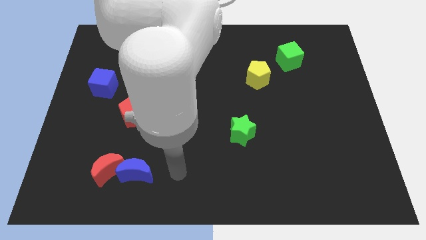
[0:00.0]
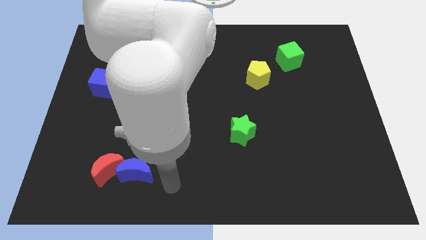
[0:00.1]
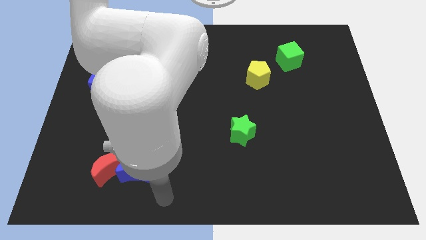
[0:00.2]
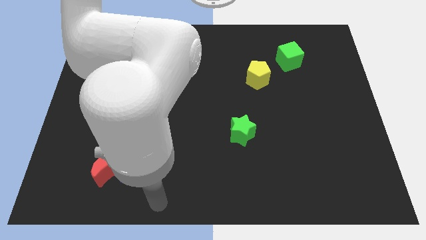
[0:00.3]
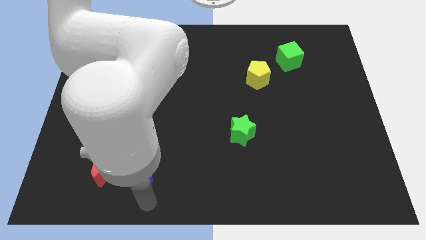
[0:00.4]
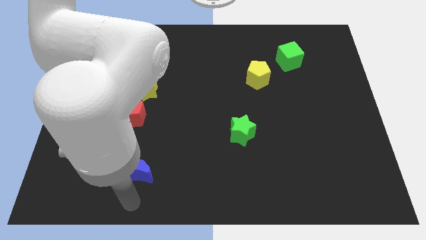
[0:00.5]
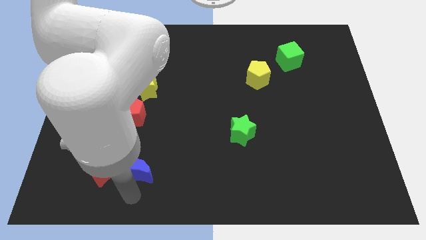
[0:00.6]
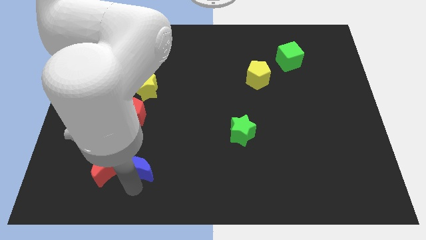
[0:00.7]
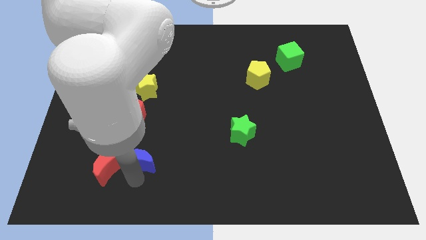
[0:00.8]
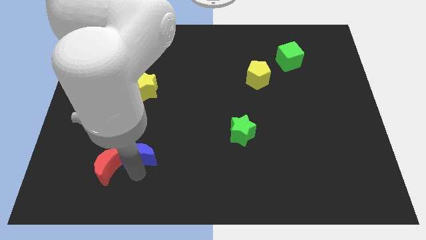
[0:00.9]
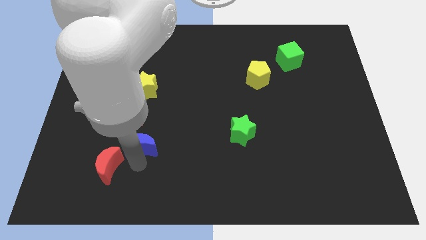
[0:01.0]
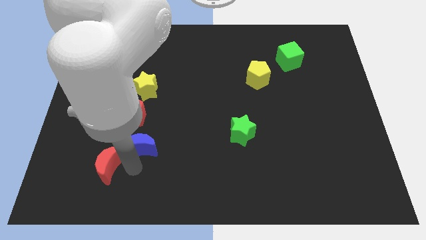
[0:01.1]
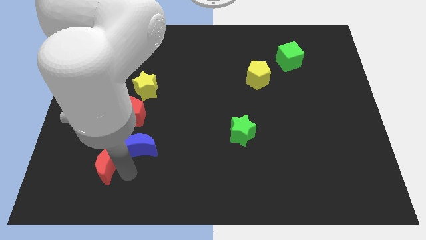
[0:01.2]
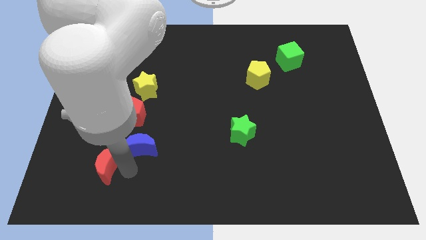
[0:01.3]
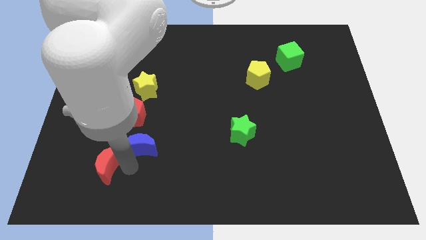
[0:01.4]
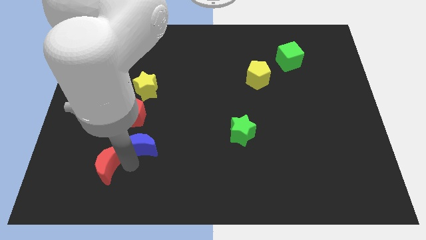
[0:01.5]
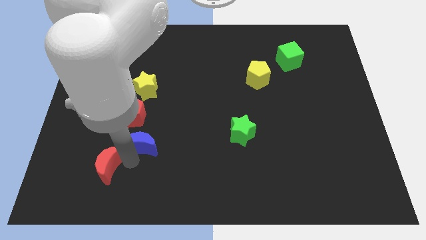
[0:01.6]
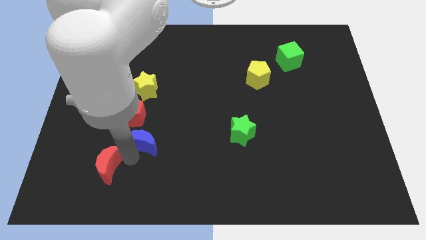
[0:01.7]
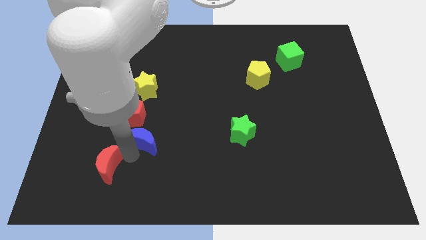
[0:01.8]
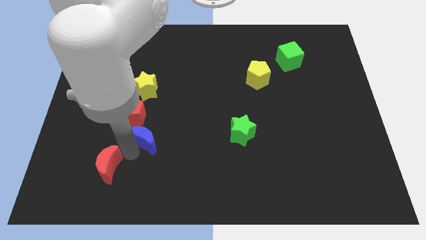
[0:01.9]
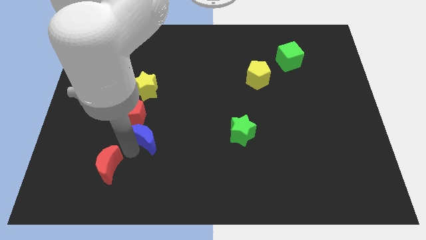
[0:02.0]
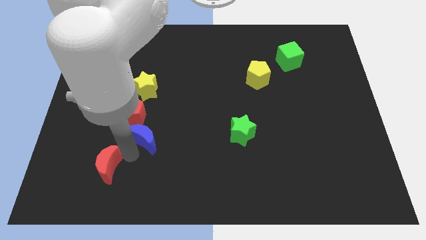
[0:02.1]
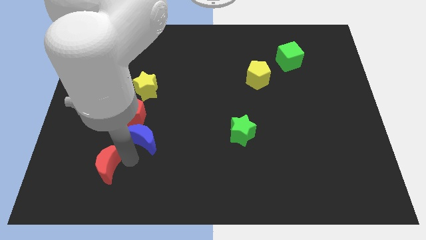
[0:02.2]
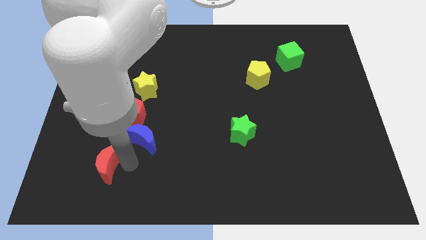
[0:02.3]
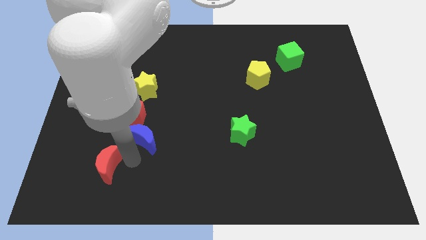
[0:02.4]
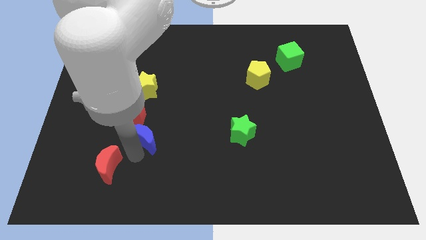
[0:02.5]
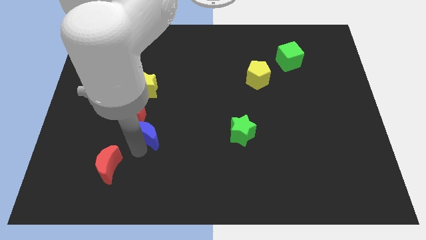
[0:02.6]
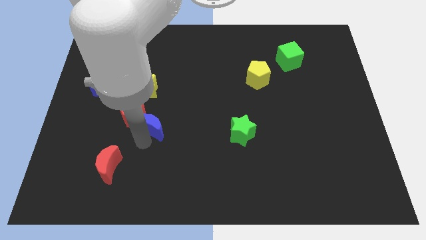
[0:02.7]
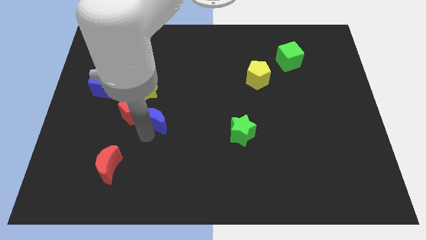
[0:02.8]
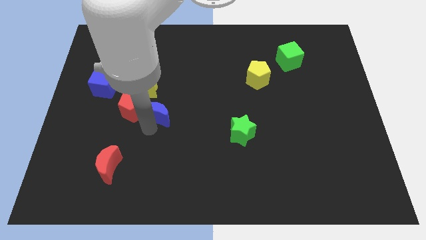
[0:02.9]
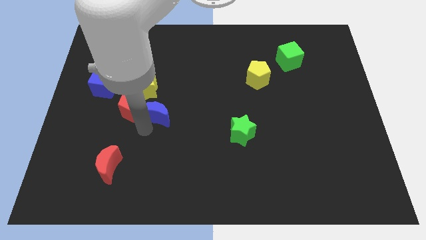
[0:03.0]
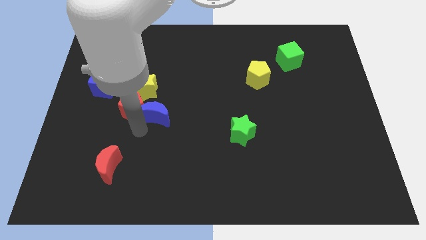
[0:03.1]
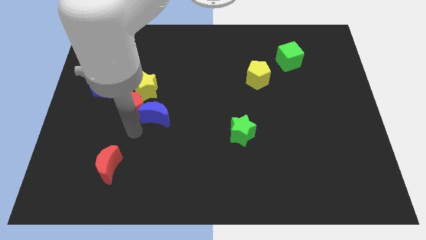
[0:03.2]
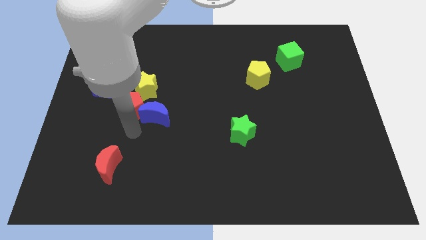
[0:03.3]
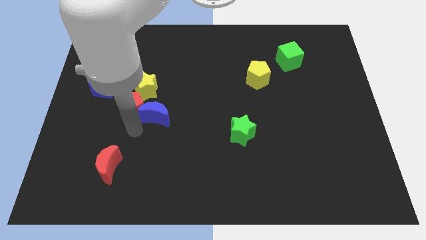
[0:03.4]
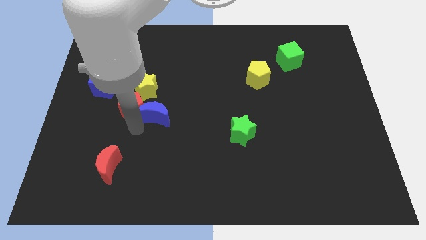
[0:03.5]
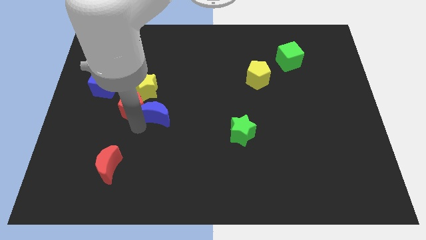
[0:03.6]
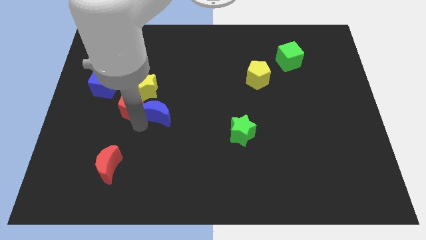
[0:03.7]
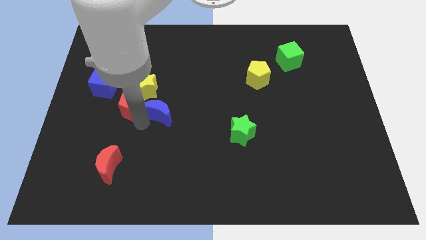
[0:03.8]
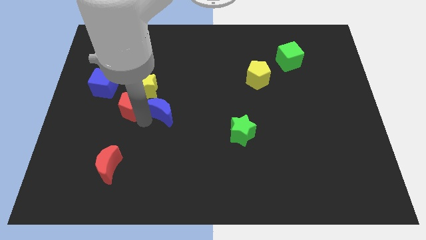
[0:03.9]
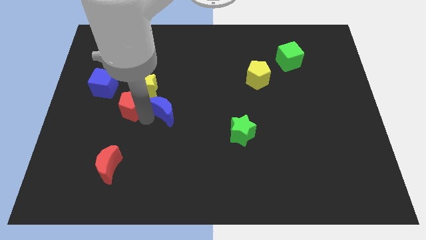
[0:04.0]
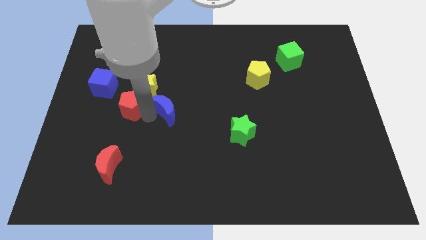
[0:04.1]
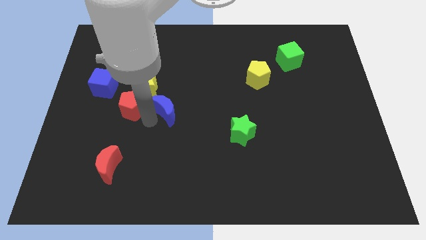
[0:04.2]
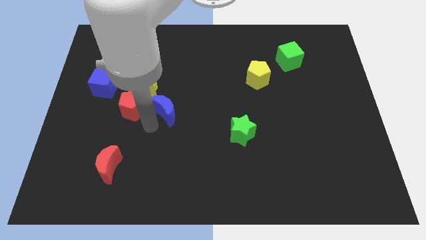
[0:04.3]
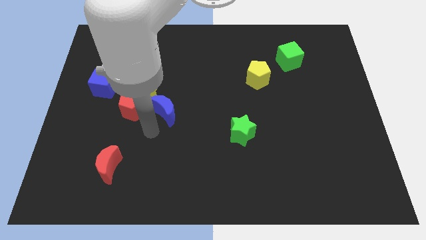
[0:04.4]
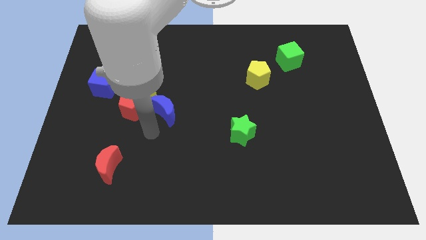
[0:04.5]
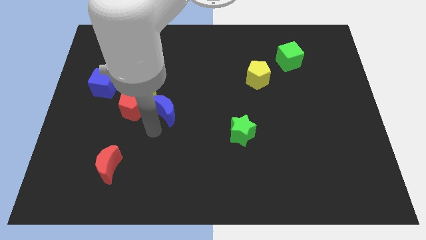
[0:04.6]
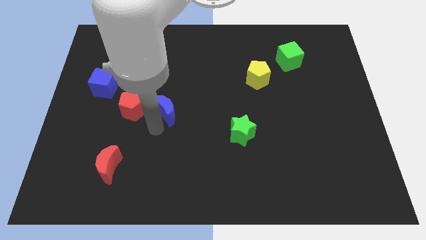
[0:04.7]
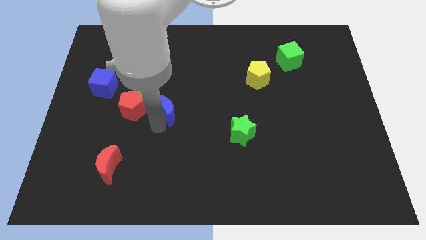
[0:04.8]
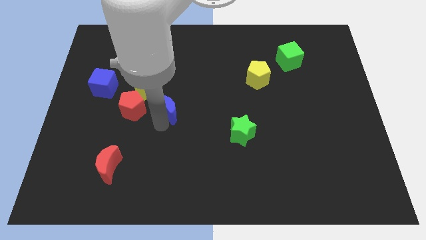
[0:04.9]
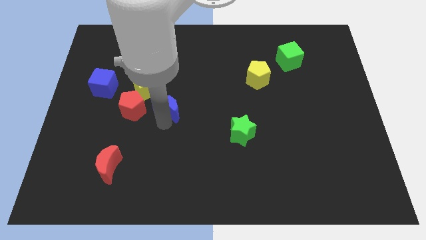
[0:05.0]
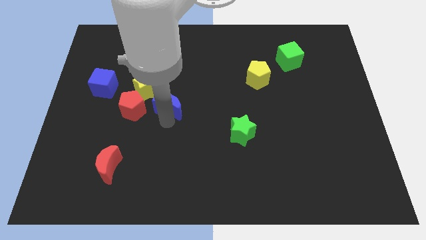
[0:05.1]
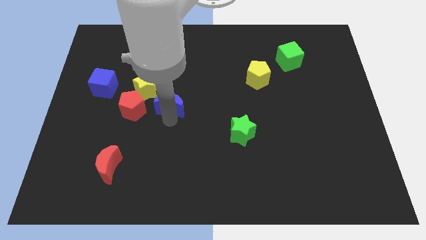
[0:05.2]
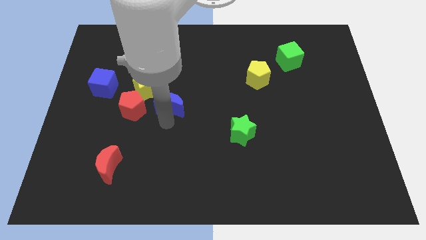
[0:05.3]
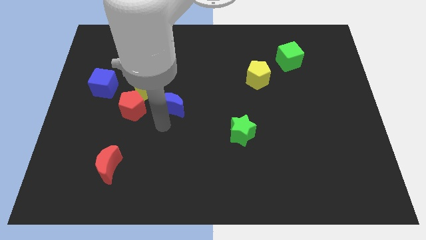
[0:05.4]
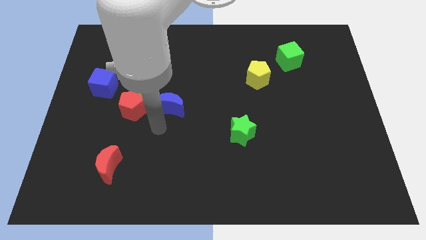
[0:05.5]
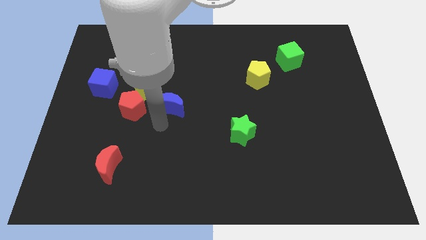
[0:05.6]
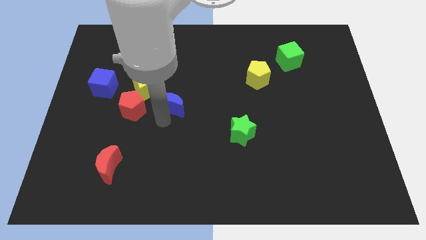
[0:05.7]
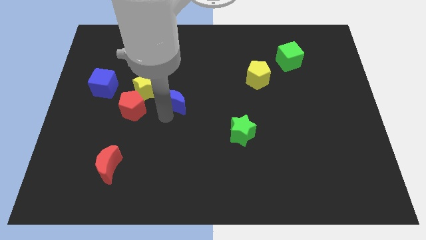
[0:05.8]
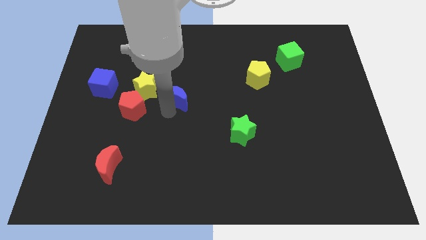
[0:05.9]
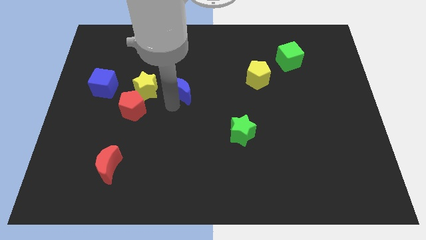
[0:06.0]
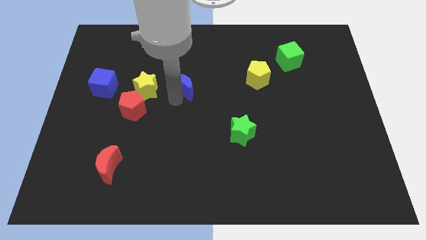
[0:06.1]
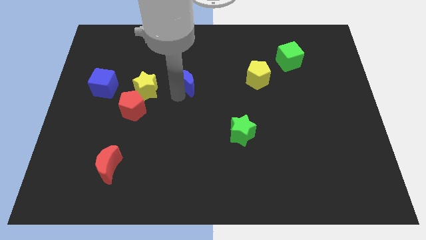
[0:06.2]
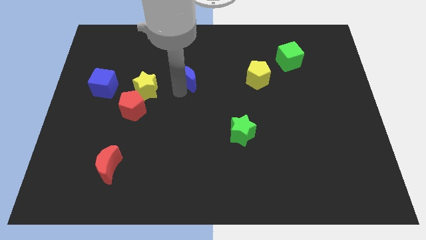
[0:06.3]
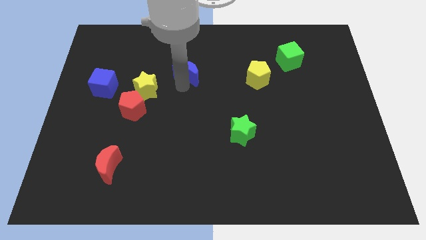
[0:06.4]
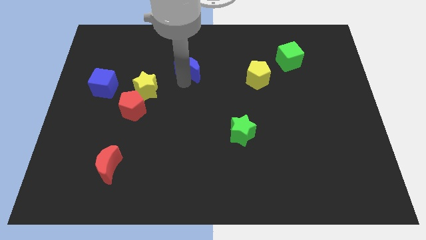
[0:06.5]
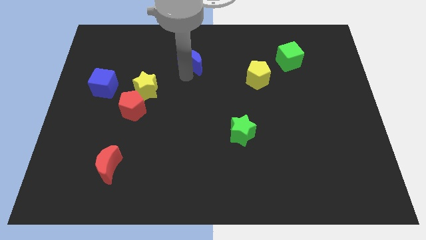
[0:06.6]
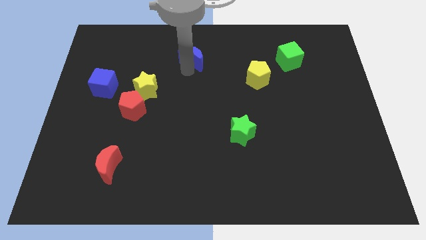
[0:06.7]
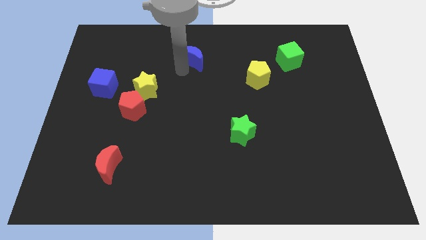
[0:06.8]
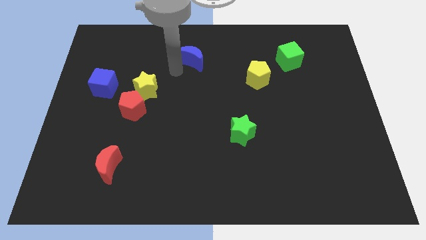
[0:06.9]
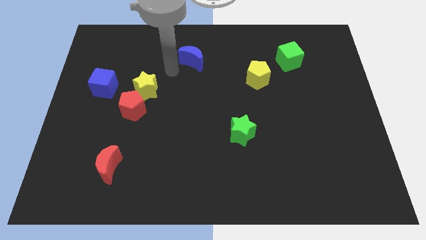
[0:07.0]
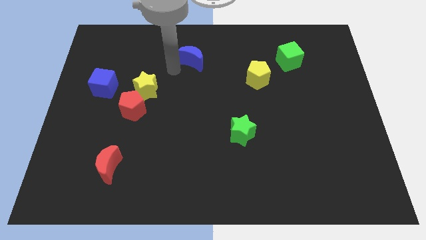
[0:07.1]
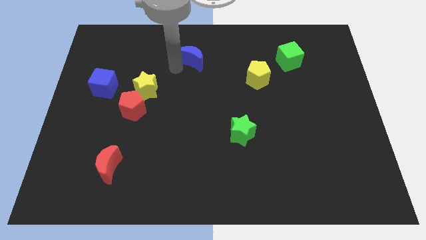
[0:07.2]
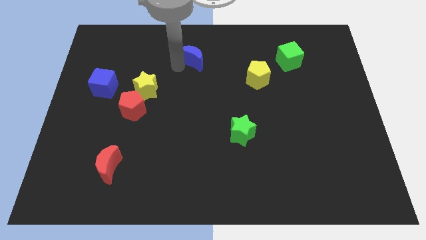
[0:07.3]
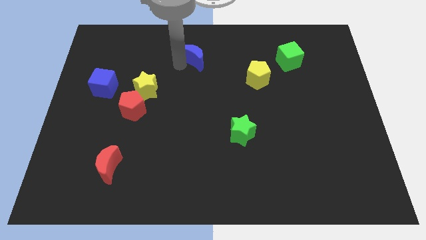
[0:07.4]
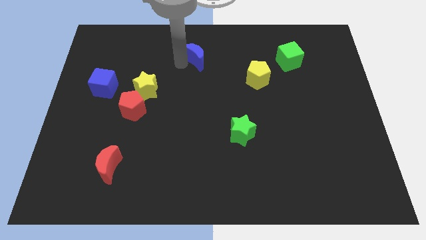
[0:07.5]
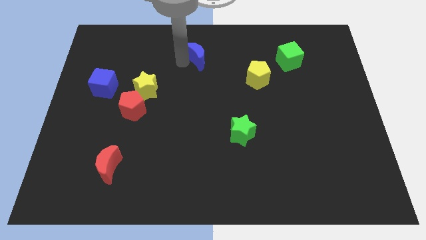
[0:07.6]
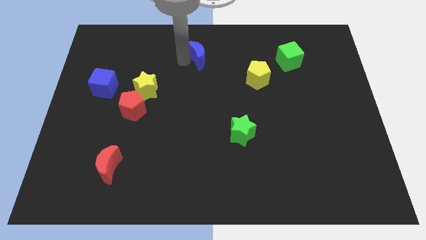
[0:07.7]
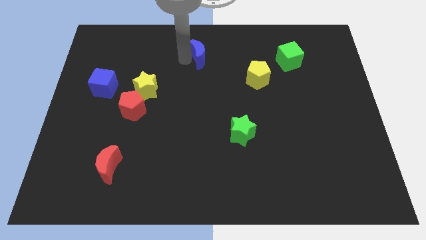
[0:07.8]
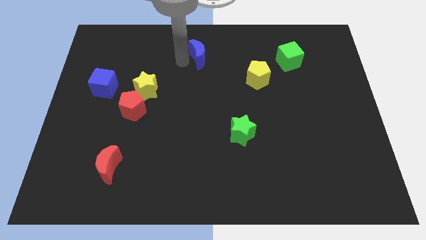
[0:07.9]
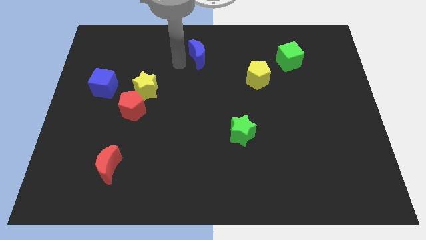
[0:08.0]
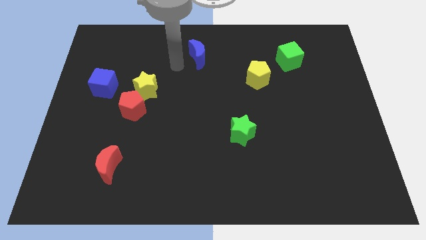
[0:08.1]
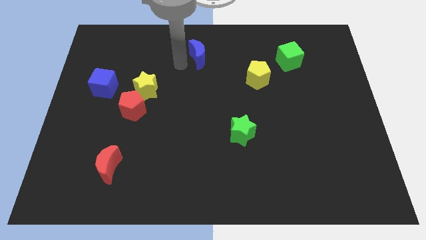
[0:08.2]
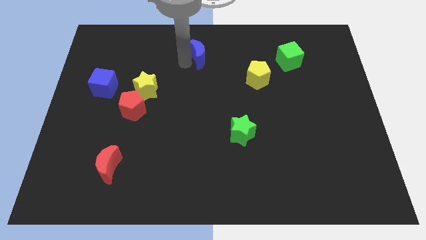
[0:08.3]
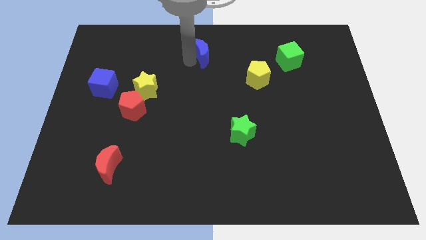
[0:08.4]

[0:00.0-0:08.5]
move the blue moon to the top side
